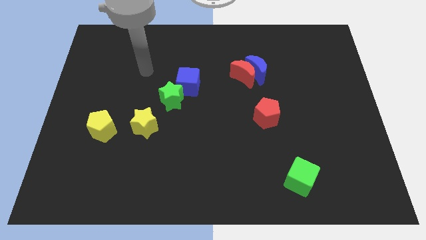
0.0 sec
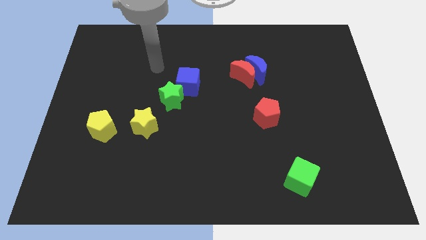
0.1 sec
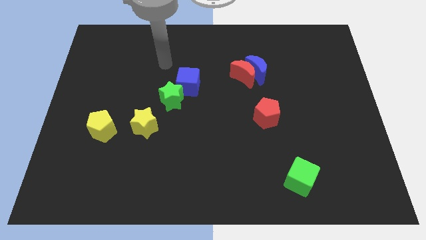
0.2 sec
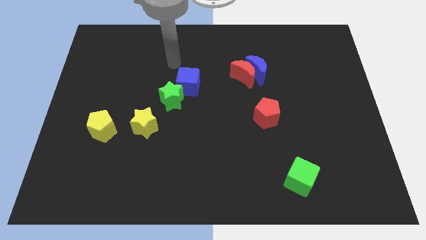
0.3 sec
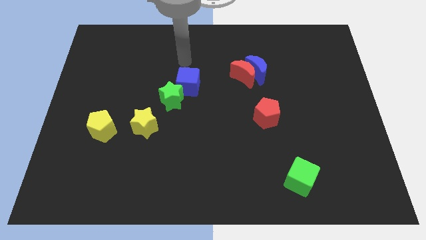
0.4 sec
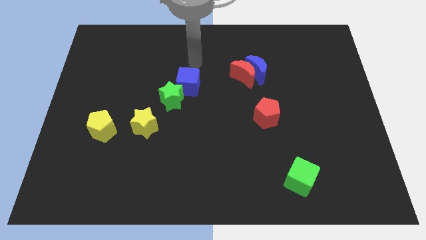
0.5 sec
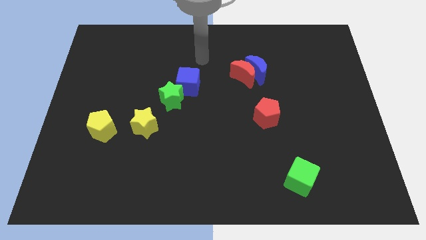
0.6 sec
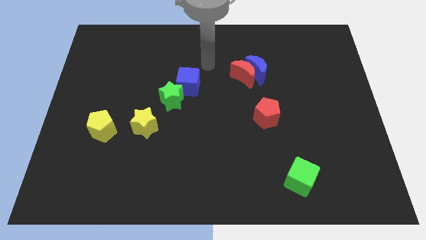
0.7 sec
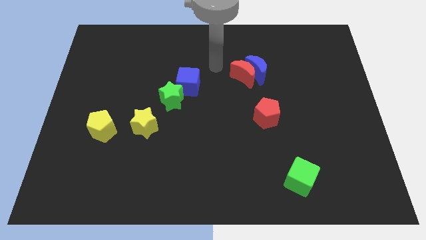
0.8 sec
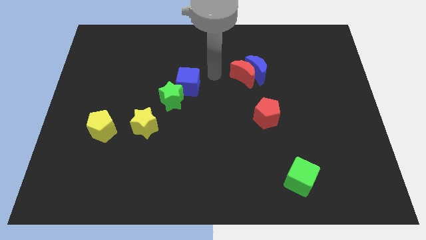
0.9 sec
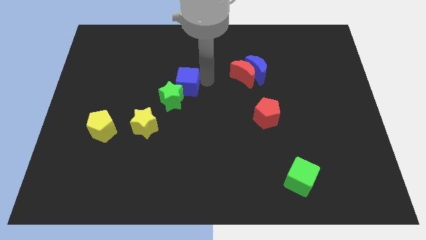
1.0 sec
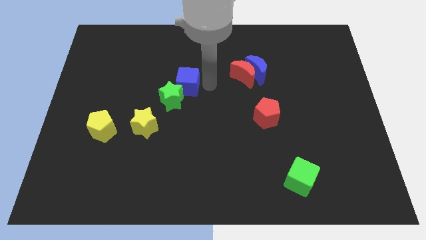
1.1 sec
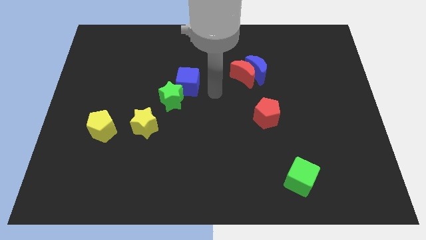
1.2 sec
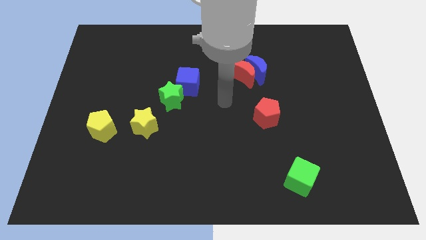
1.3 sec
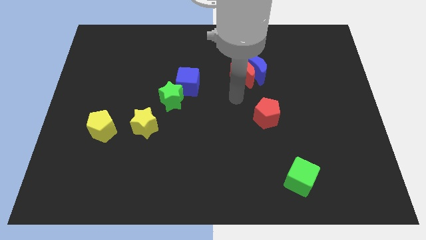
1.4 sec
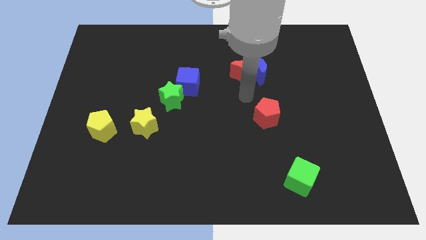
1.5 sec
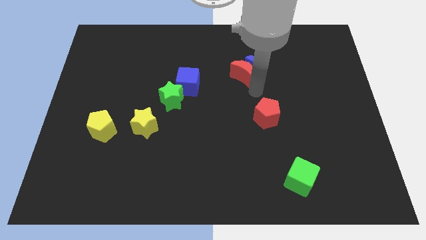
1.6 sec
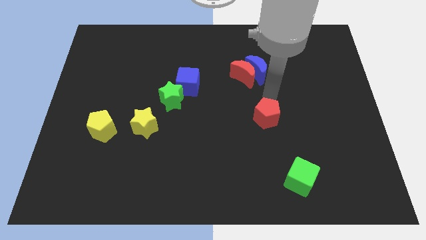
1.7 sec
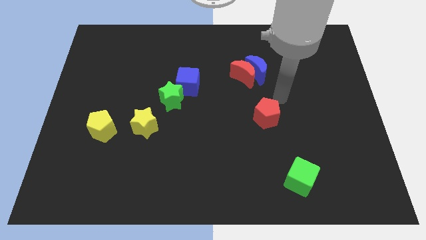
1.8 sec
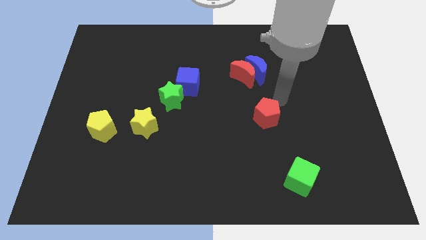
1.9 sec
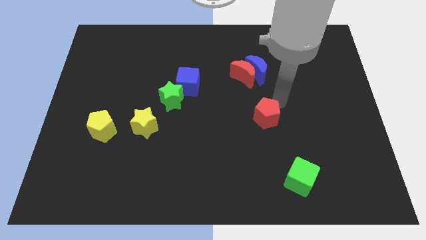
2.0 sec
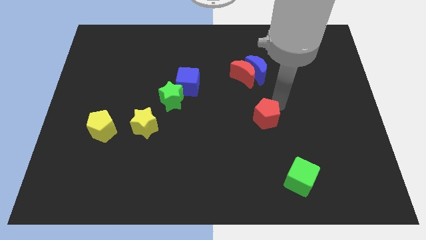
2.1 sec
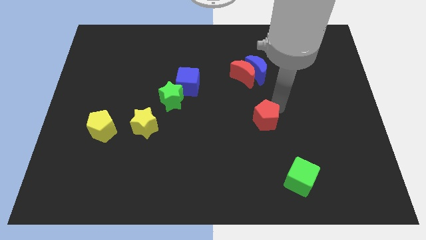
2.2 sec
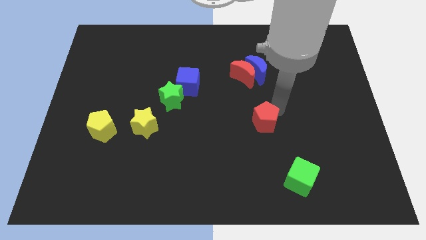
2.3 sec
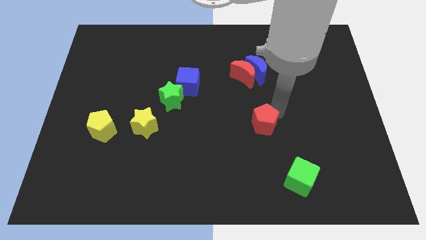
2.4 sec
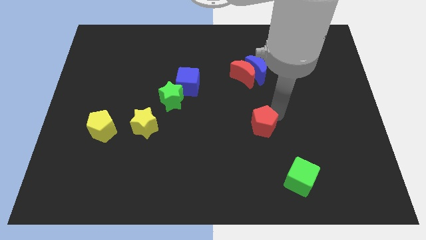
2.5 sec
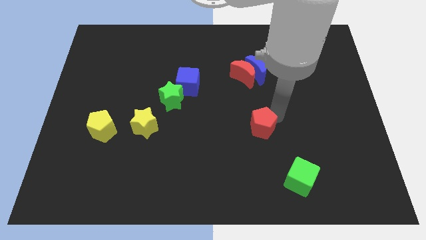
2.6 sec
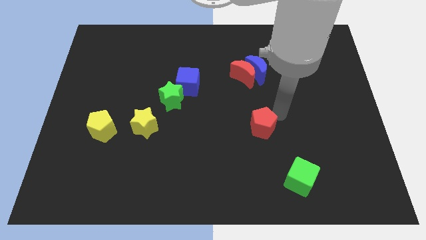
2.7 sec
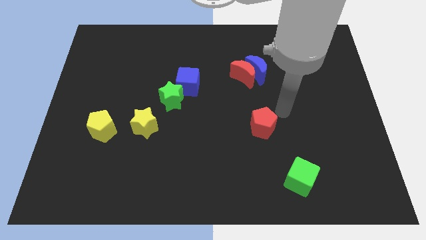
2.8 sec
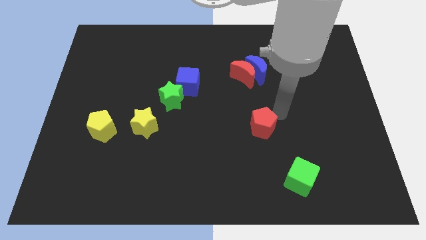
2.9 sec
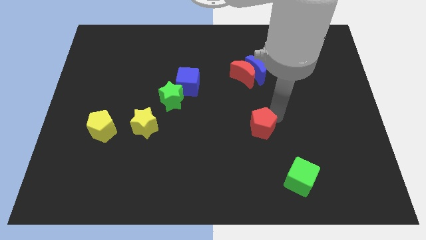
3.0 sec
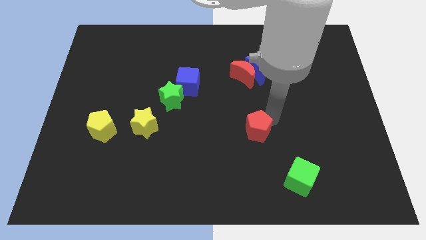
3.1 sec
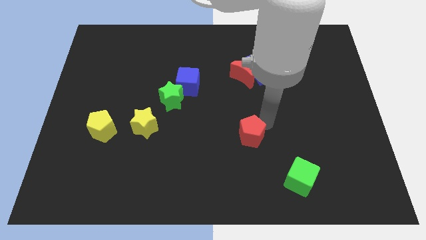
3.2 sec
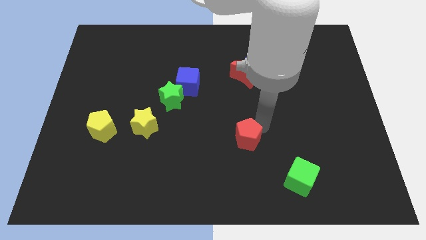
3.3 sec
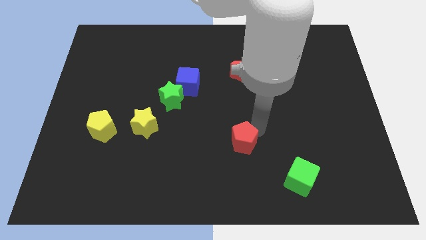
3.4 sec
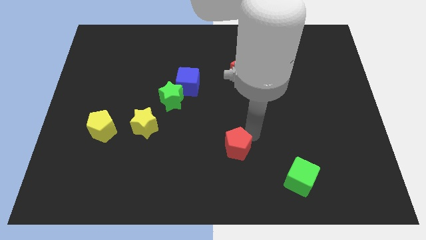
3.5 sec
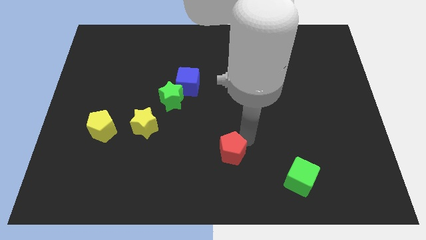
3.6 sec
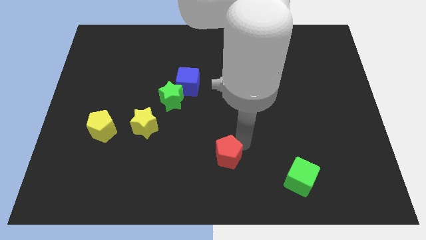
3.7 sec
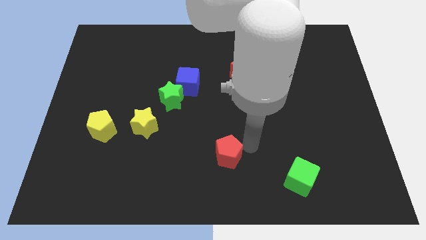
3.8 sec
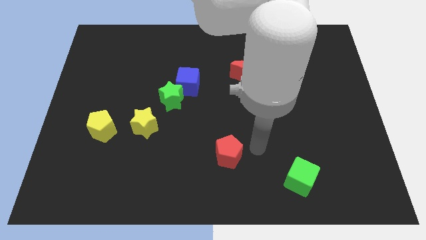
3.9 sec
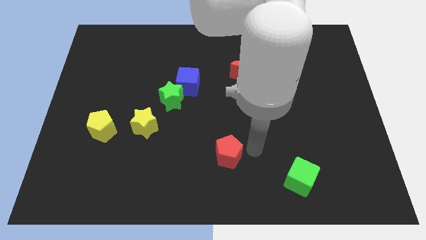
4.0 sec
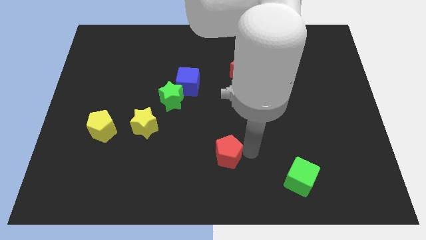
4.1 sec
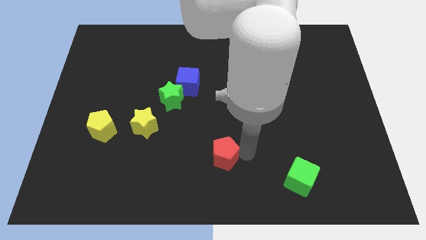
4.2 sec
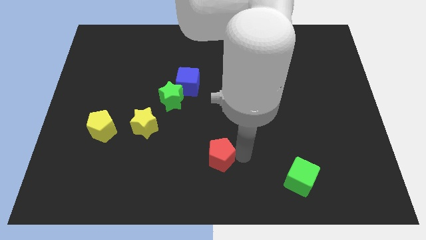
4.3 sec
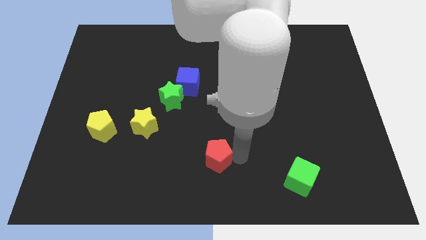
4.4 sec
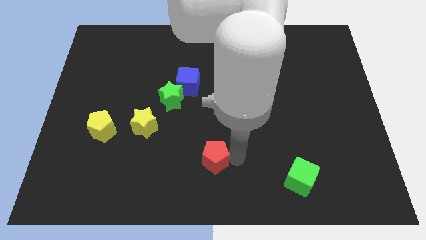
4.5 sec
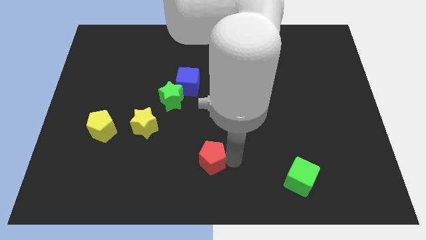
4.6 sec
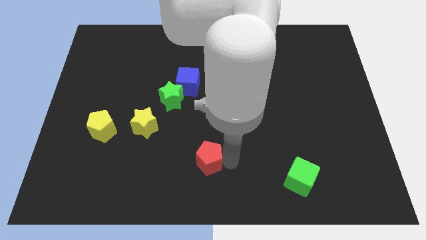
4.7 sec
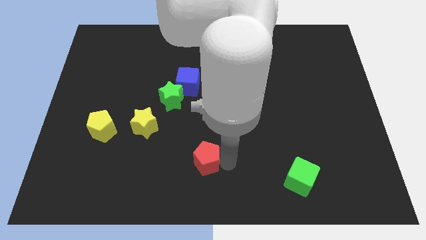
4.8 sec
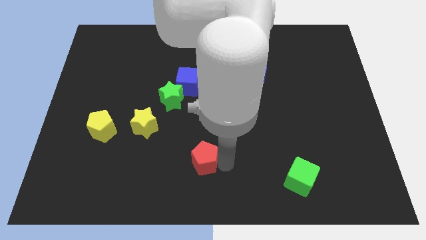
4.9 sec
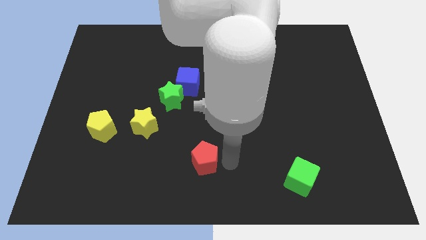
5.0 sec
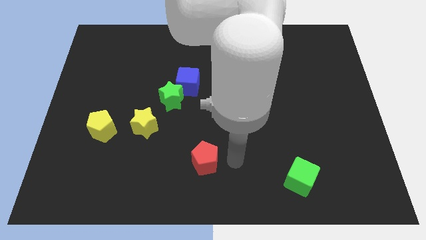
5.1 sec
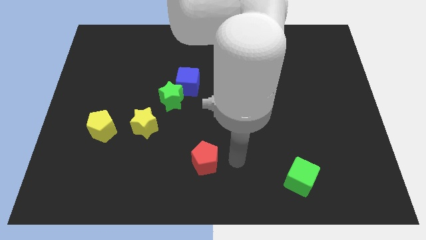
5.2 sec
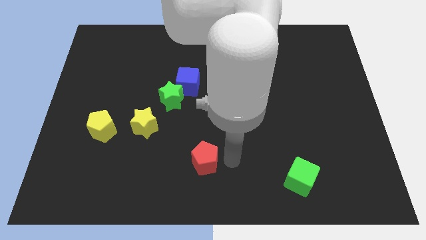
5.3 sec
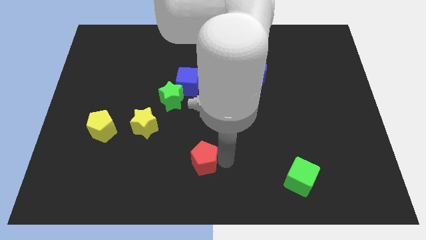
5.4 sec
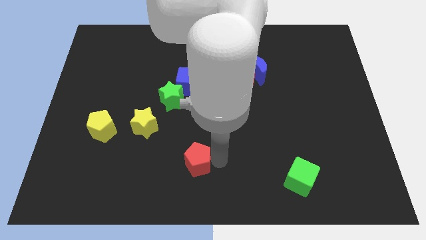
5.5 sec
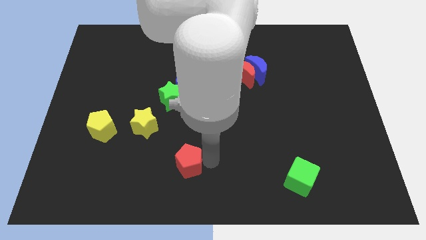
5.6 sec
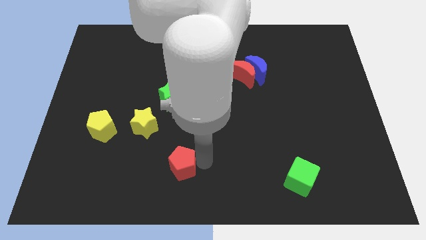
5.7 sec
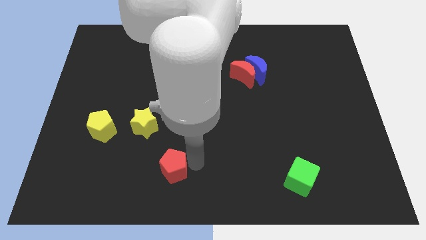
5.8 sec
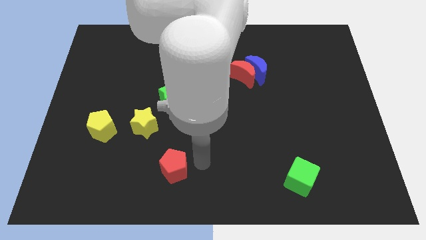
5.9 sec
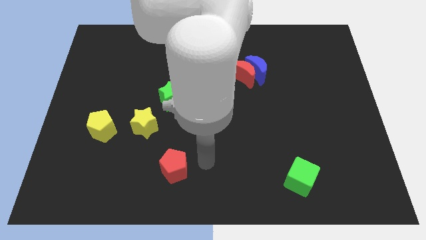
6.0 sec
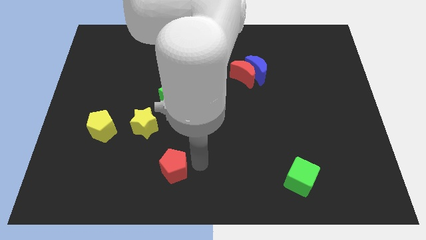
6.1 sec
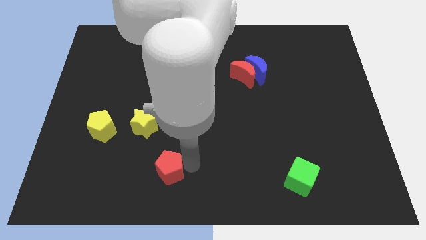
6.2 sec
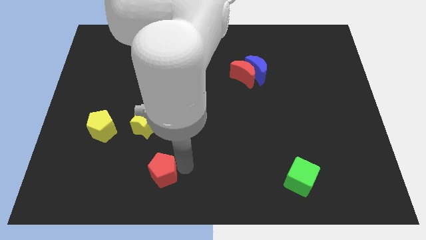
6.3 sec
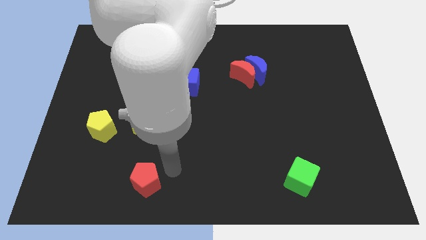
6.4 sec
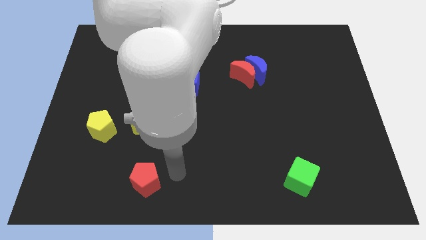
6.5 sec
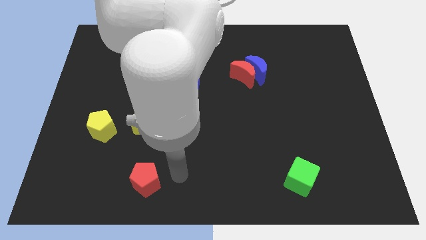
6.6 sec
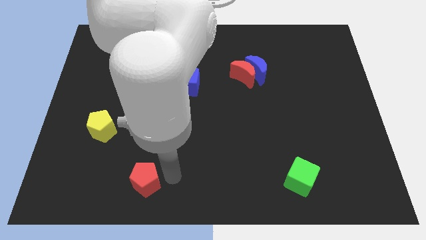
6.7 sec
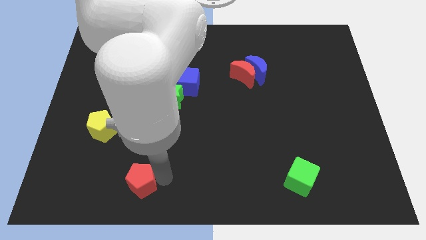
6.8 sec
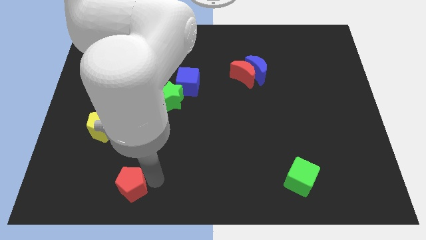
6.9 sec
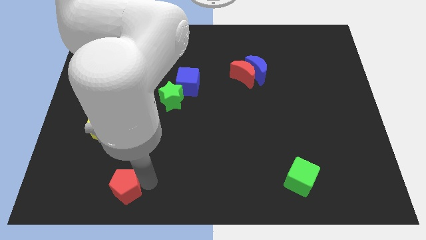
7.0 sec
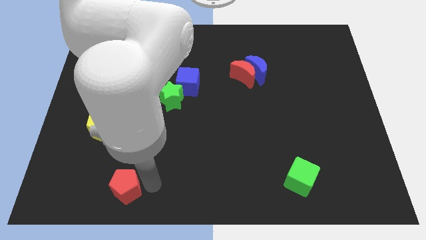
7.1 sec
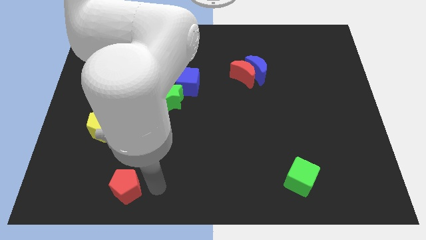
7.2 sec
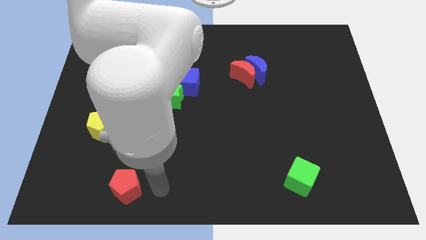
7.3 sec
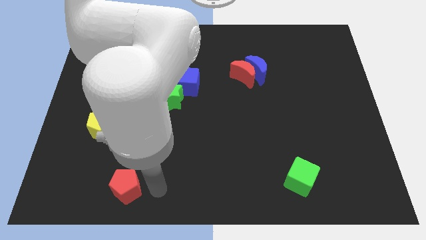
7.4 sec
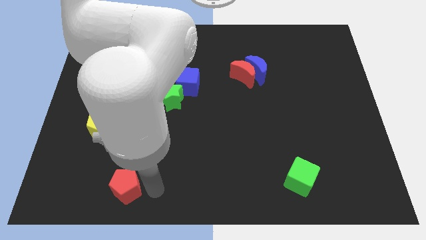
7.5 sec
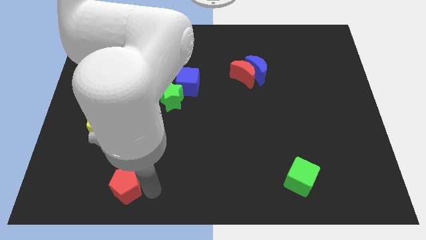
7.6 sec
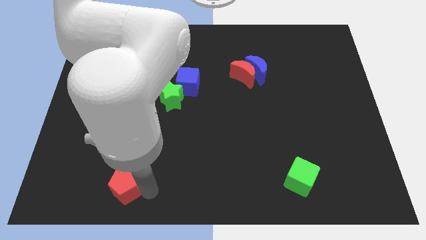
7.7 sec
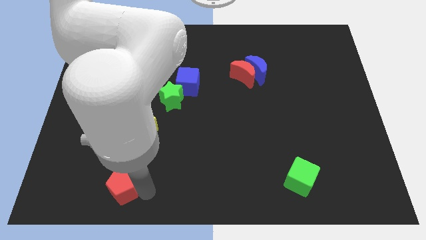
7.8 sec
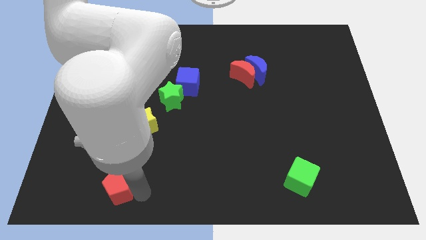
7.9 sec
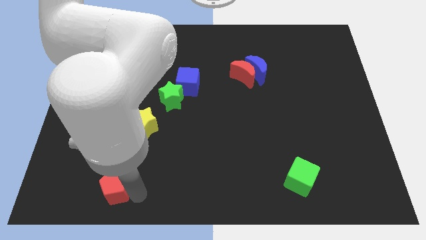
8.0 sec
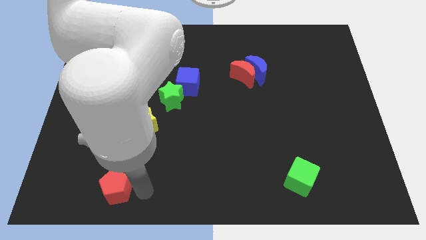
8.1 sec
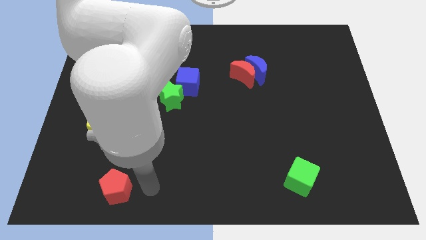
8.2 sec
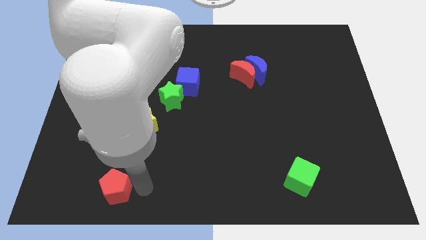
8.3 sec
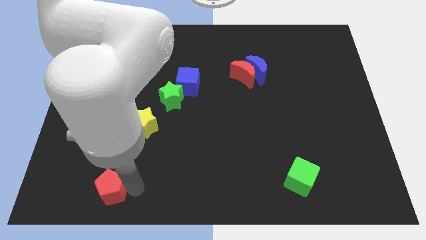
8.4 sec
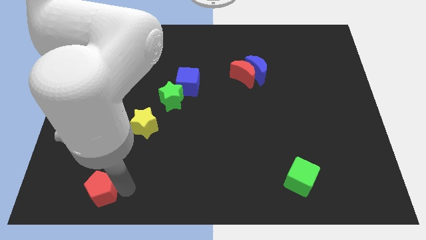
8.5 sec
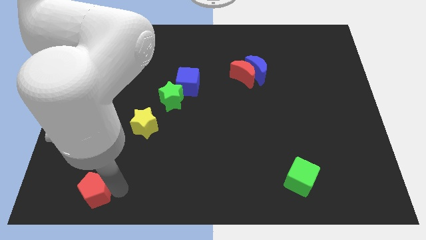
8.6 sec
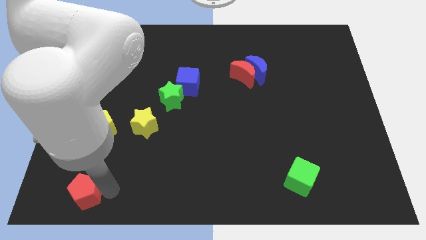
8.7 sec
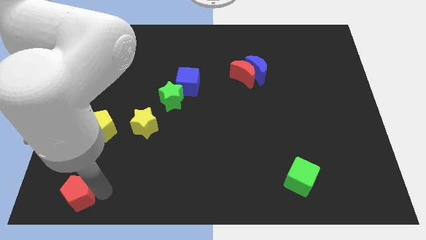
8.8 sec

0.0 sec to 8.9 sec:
slide the red pentagon to the lower left corner
